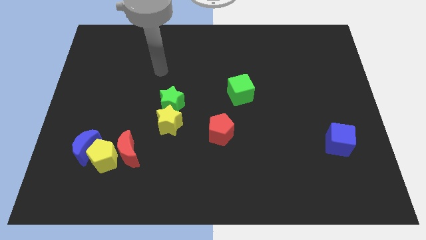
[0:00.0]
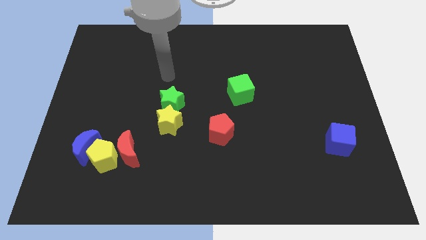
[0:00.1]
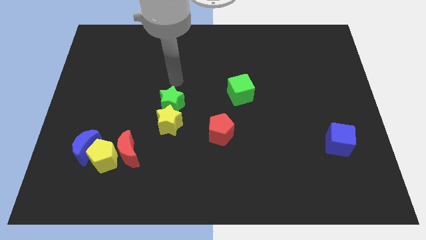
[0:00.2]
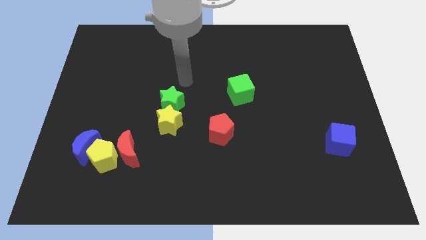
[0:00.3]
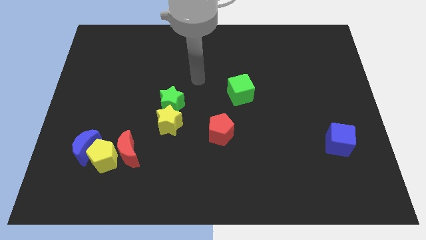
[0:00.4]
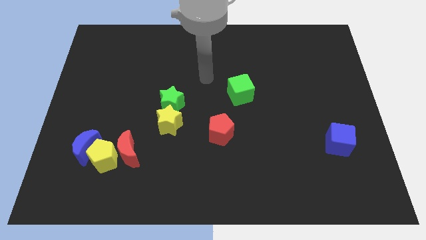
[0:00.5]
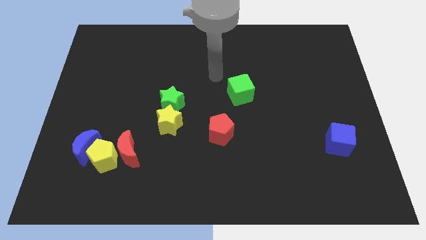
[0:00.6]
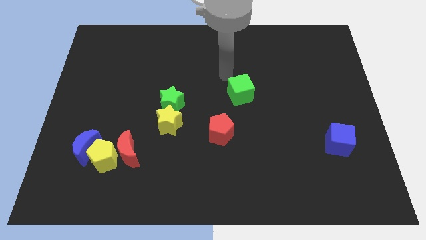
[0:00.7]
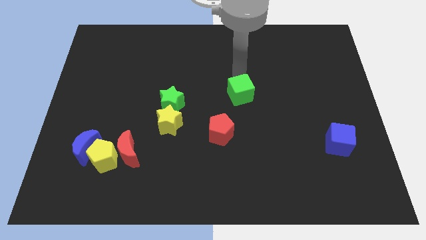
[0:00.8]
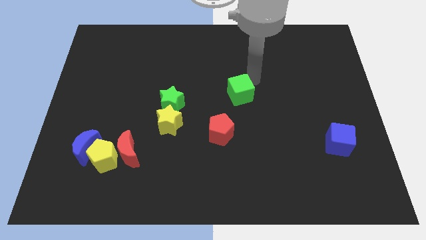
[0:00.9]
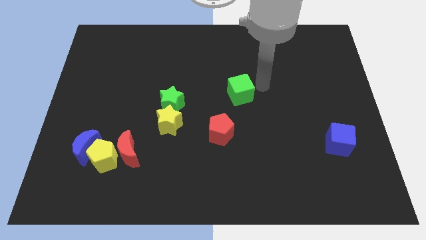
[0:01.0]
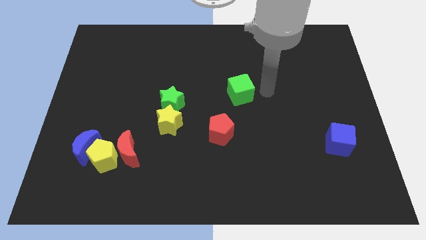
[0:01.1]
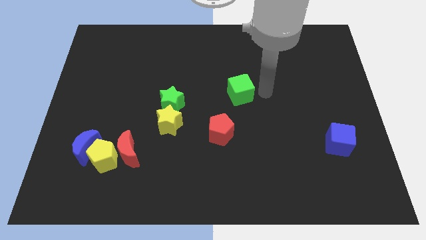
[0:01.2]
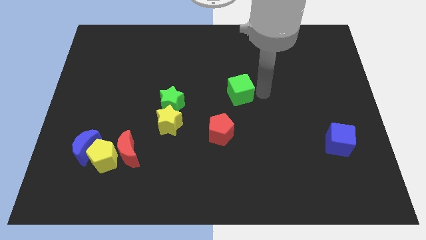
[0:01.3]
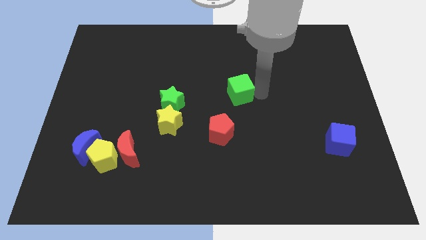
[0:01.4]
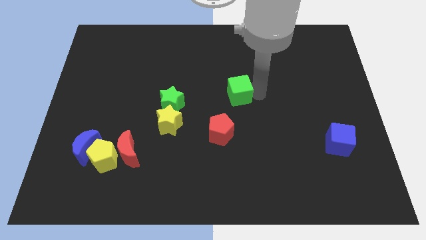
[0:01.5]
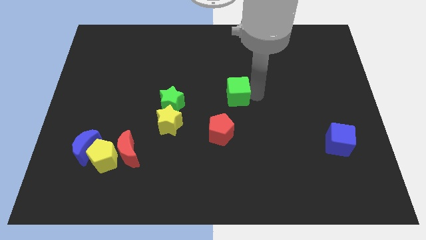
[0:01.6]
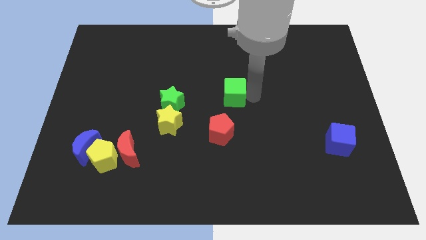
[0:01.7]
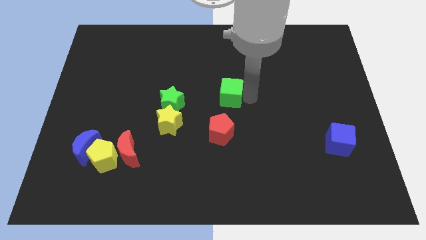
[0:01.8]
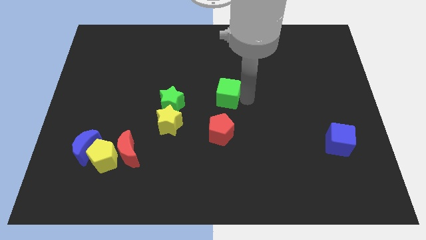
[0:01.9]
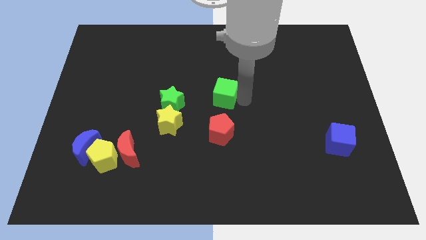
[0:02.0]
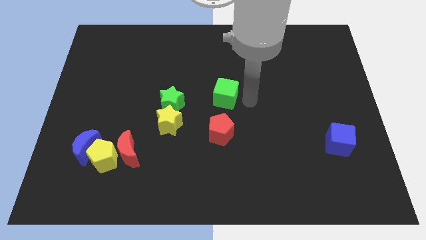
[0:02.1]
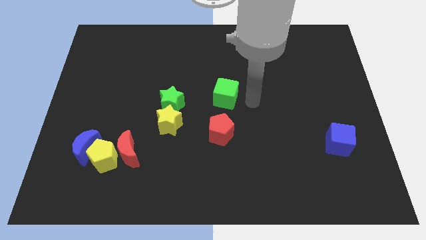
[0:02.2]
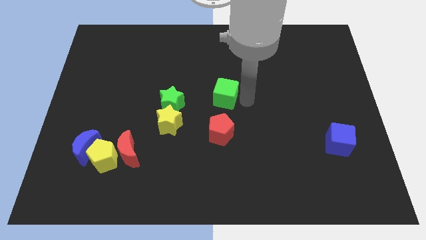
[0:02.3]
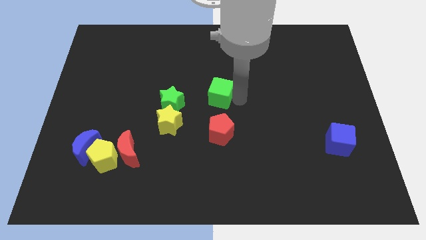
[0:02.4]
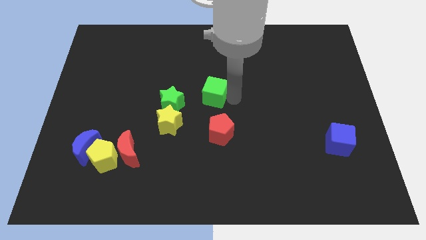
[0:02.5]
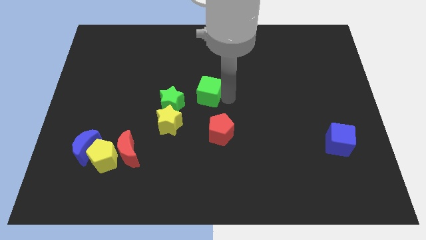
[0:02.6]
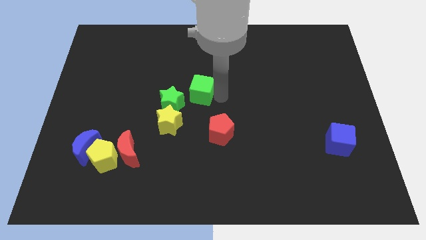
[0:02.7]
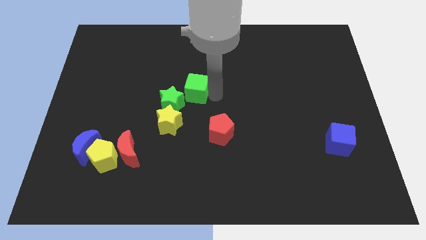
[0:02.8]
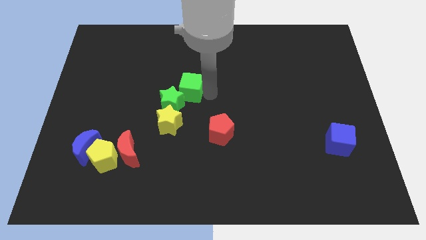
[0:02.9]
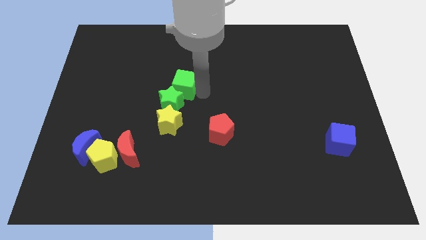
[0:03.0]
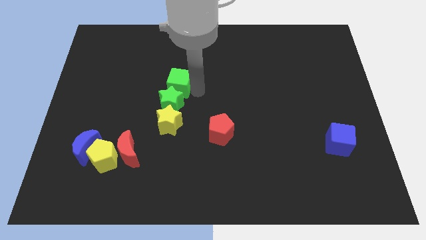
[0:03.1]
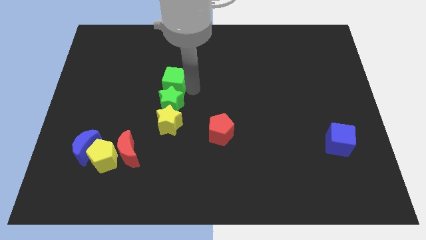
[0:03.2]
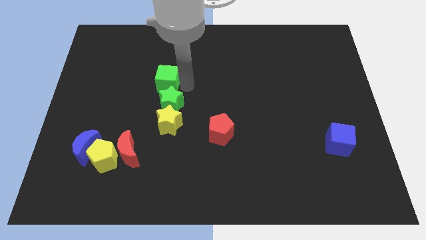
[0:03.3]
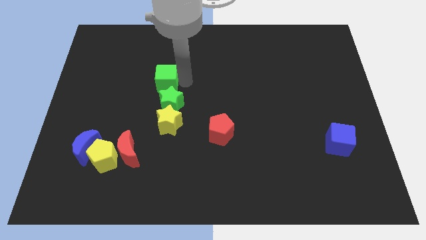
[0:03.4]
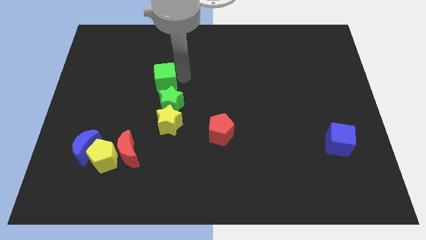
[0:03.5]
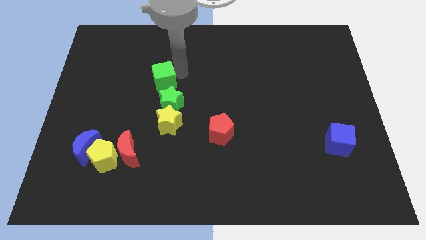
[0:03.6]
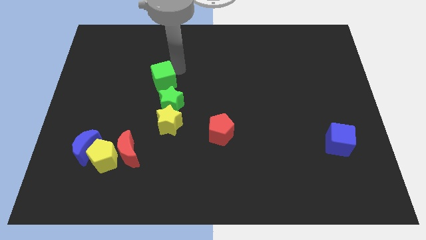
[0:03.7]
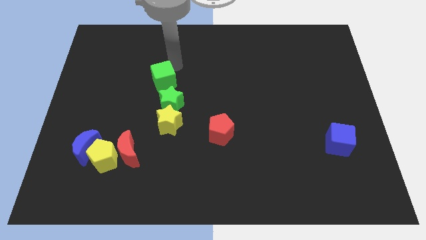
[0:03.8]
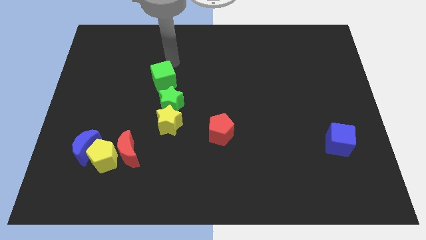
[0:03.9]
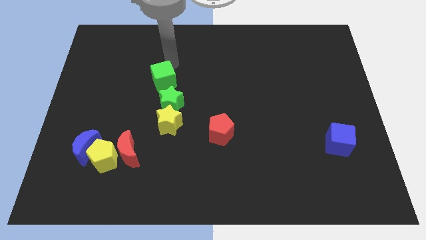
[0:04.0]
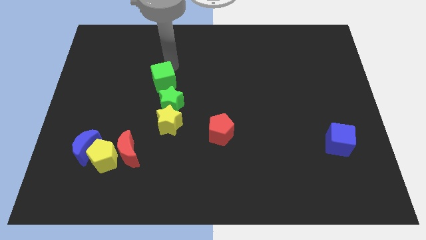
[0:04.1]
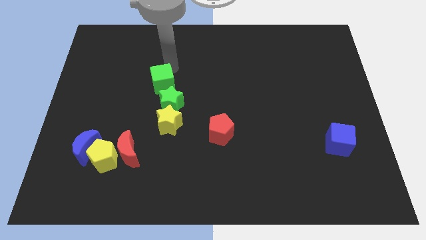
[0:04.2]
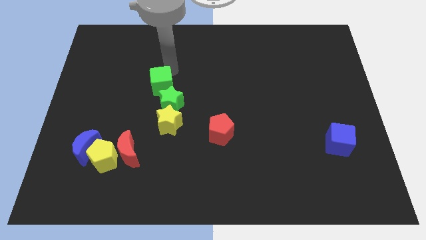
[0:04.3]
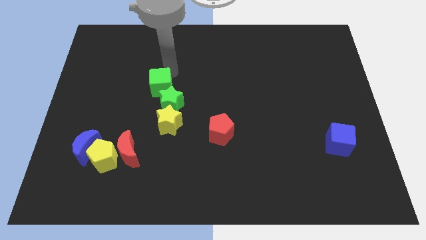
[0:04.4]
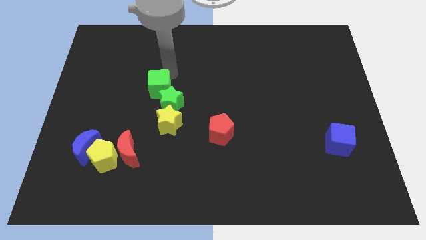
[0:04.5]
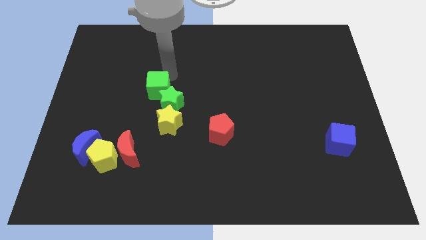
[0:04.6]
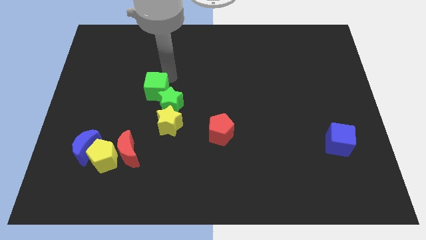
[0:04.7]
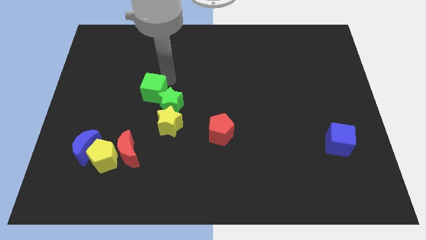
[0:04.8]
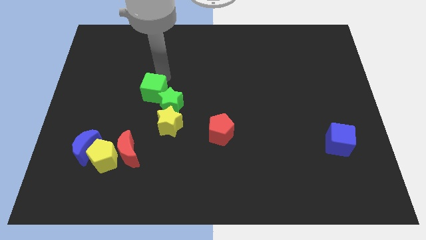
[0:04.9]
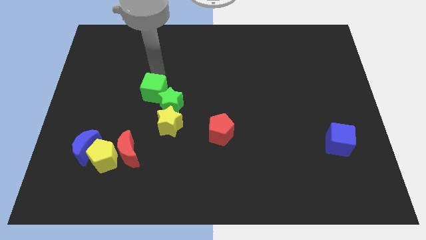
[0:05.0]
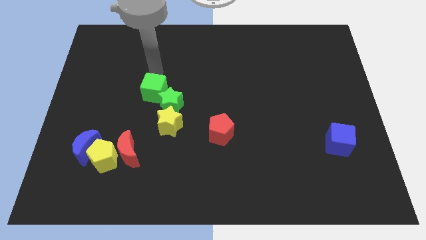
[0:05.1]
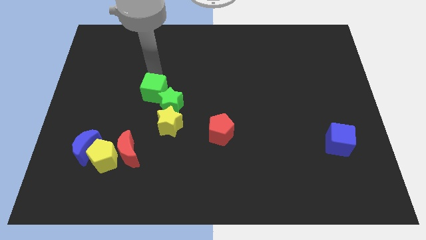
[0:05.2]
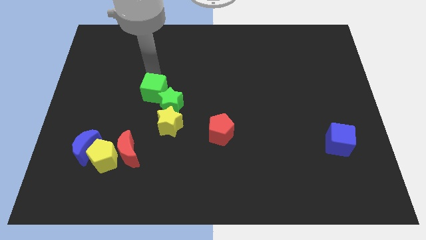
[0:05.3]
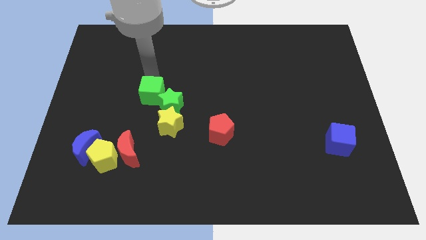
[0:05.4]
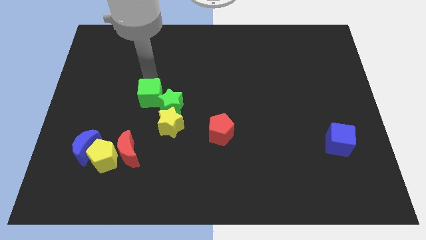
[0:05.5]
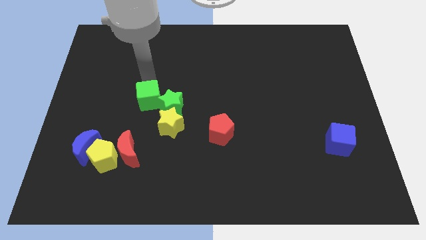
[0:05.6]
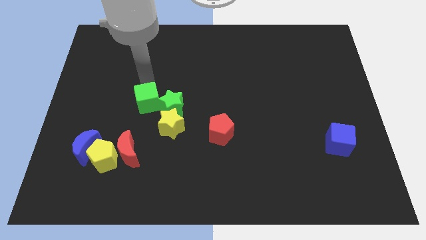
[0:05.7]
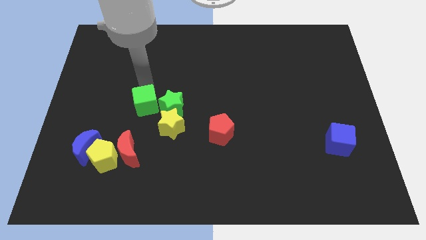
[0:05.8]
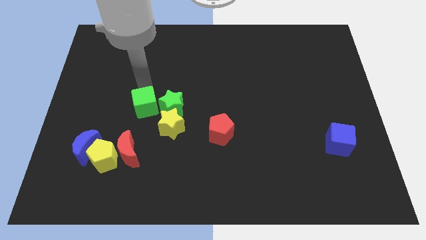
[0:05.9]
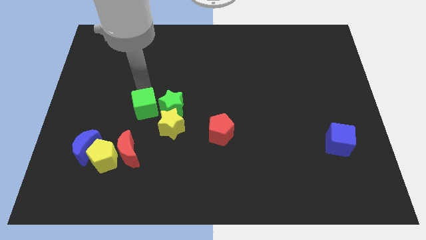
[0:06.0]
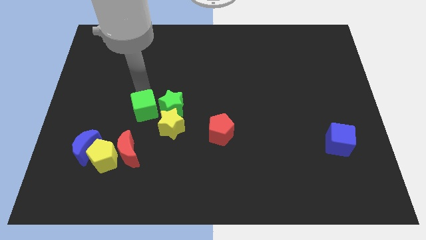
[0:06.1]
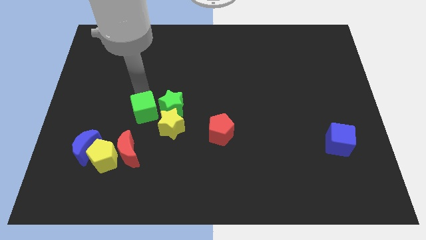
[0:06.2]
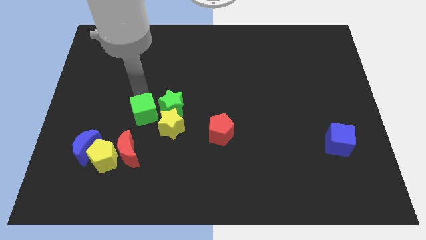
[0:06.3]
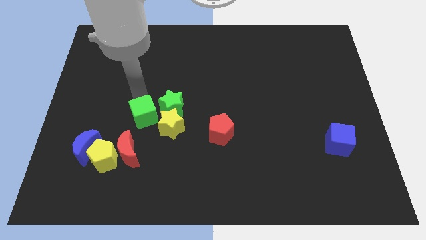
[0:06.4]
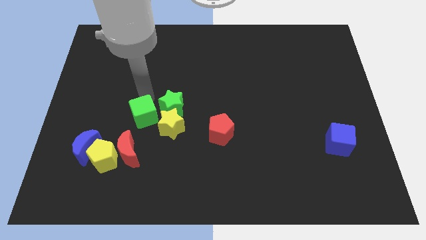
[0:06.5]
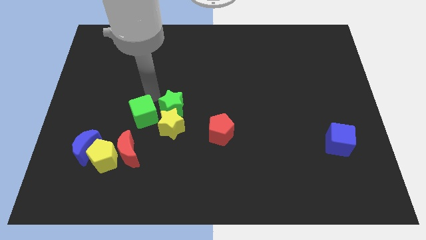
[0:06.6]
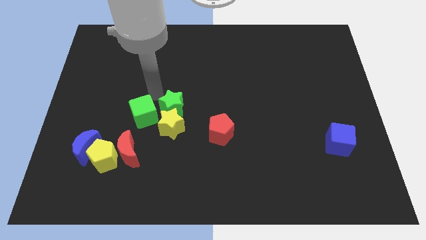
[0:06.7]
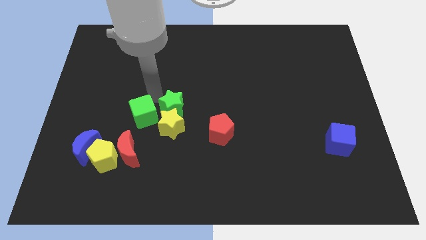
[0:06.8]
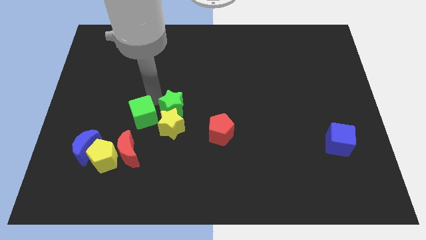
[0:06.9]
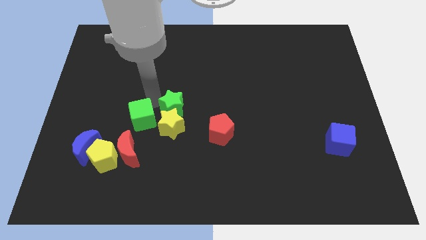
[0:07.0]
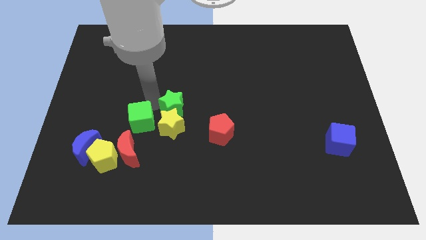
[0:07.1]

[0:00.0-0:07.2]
push the green cube to the top right of the yellow pentagon
